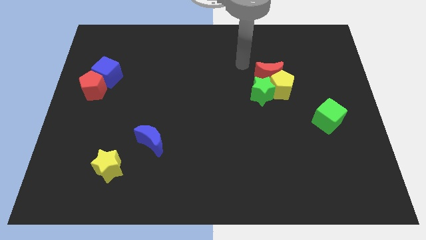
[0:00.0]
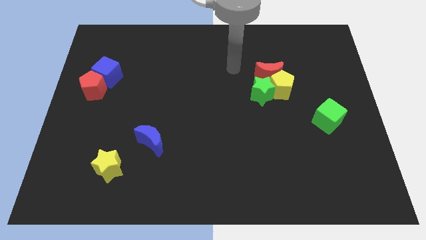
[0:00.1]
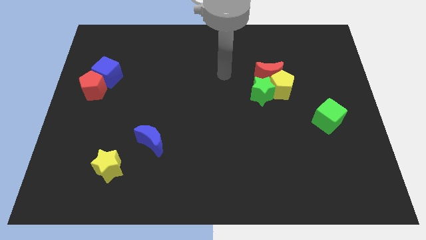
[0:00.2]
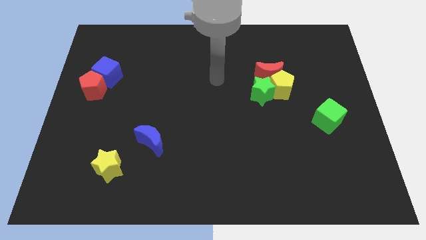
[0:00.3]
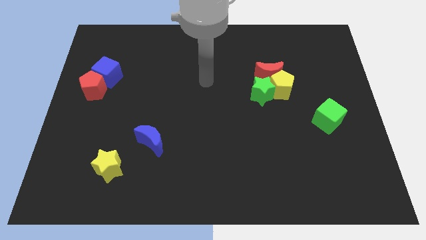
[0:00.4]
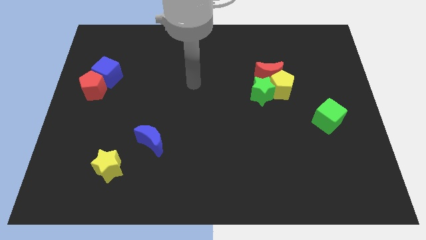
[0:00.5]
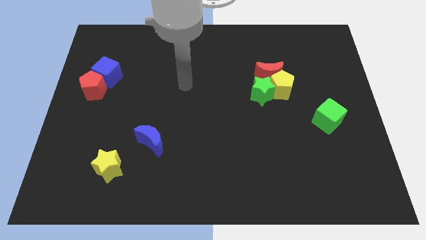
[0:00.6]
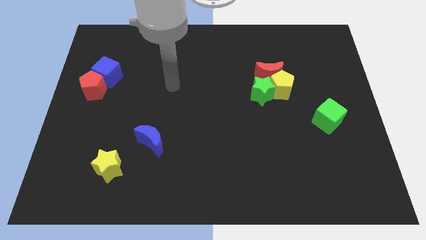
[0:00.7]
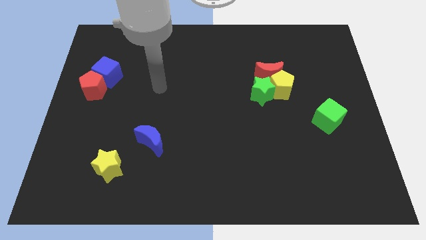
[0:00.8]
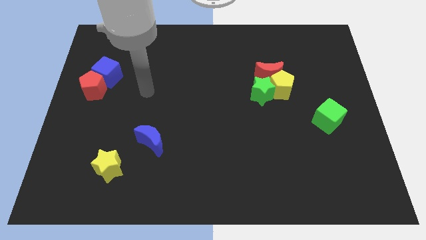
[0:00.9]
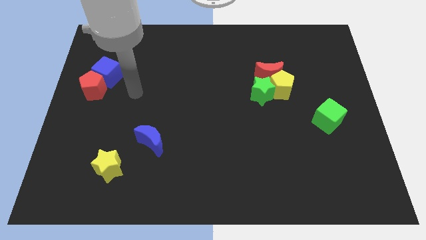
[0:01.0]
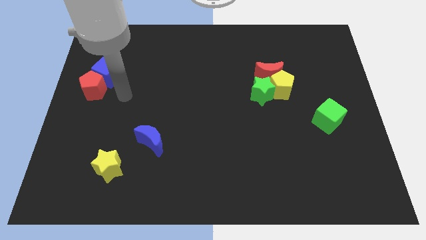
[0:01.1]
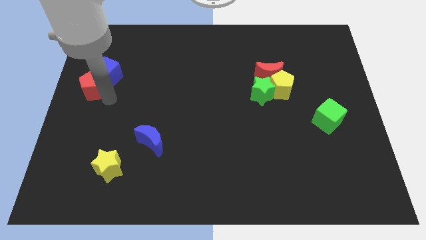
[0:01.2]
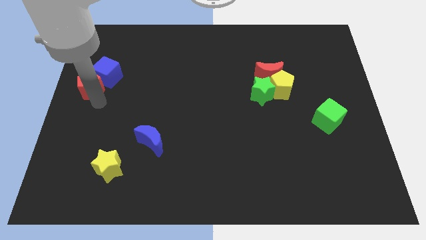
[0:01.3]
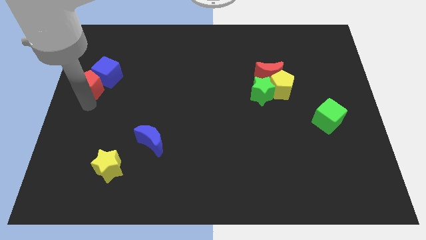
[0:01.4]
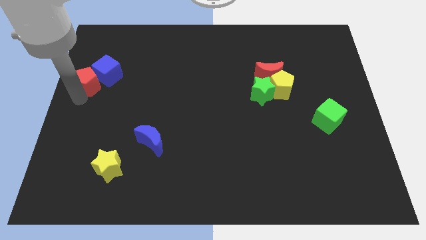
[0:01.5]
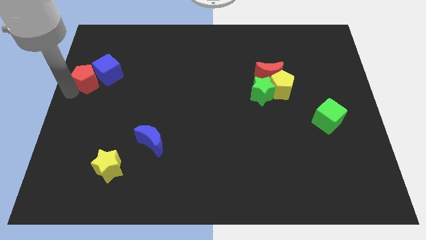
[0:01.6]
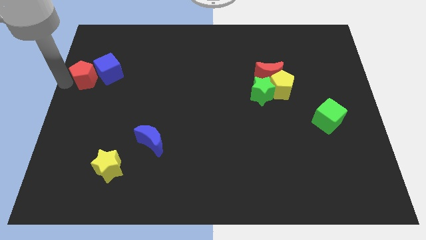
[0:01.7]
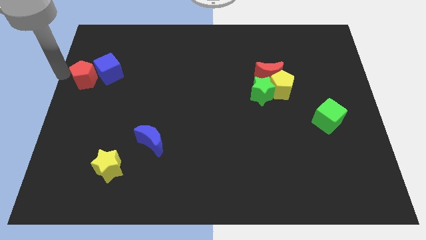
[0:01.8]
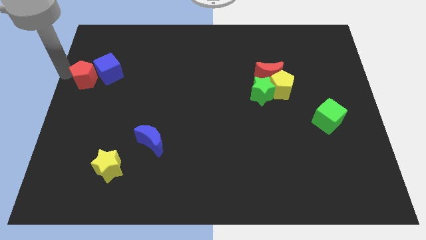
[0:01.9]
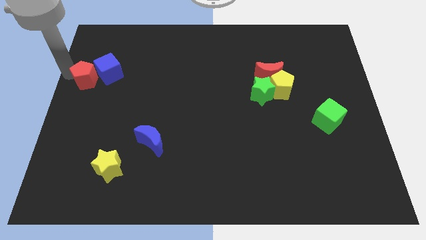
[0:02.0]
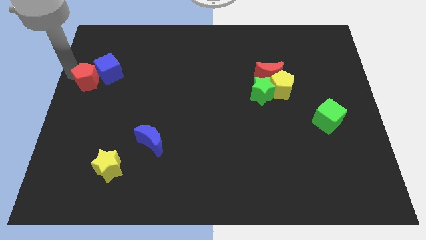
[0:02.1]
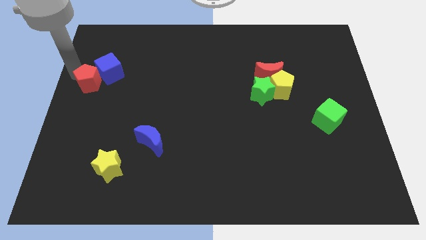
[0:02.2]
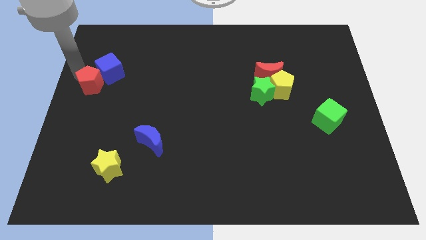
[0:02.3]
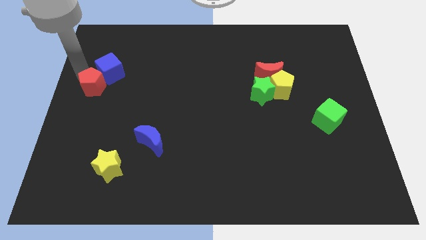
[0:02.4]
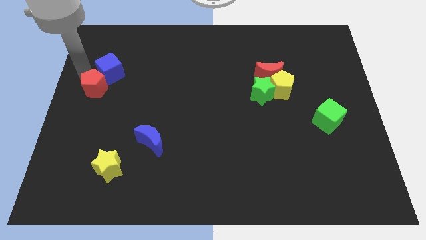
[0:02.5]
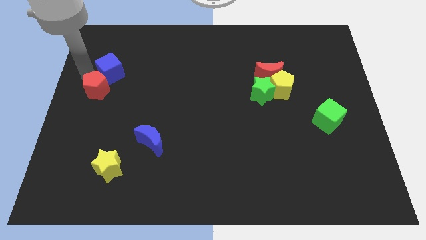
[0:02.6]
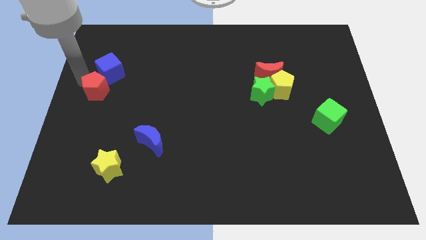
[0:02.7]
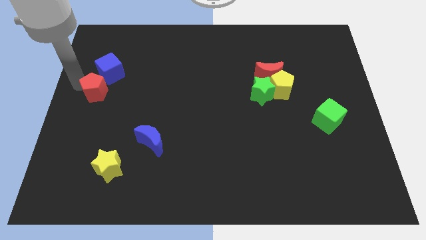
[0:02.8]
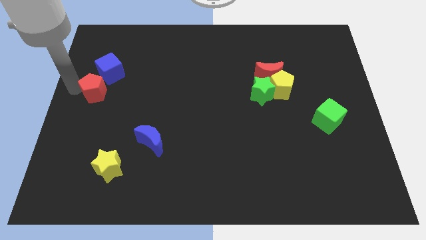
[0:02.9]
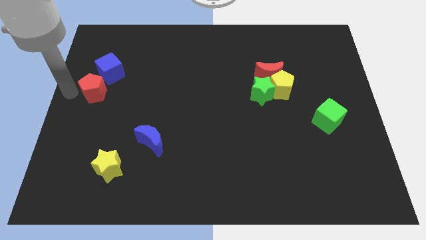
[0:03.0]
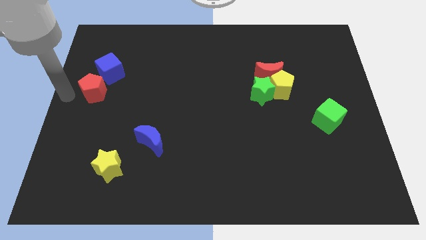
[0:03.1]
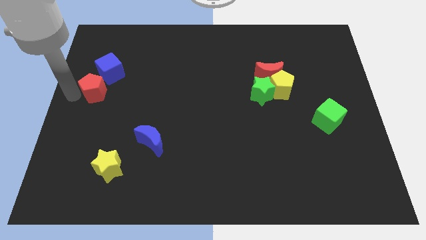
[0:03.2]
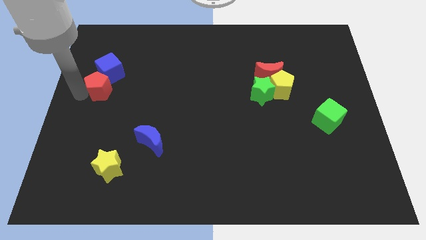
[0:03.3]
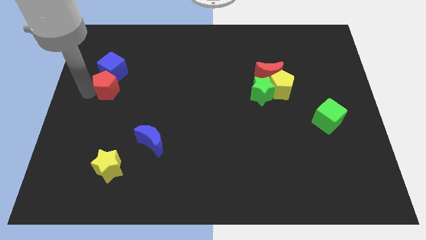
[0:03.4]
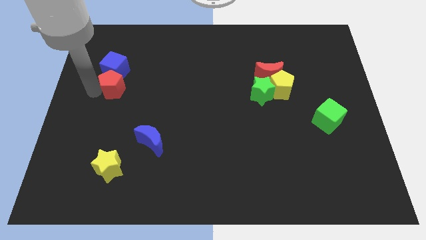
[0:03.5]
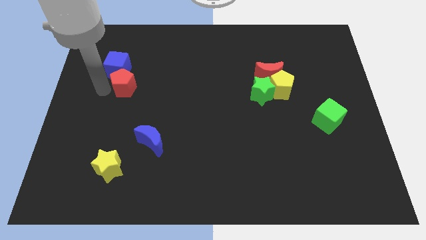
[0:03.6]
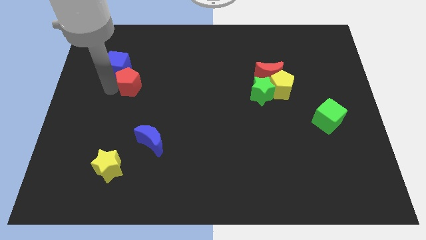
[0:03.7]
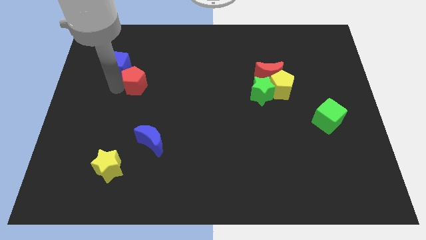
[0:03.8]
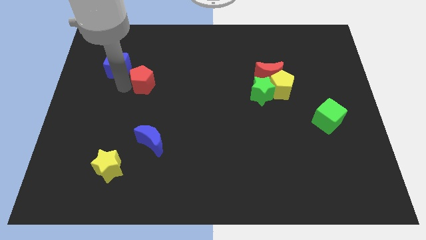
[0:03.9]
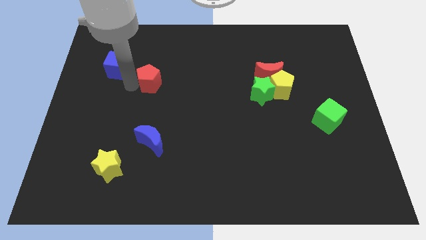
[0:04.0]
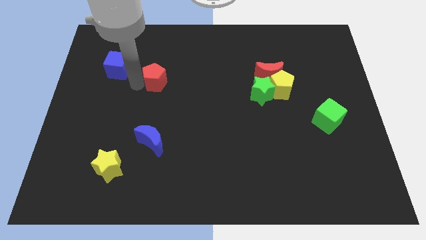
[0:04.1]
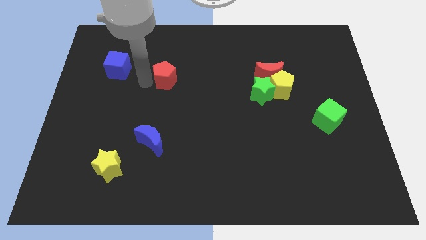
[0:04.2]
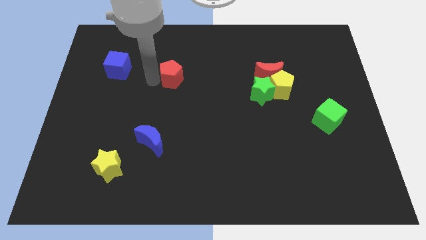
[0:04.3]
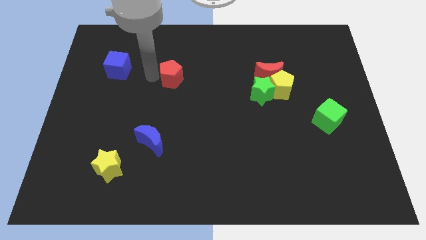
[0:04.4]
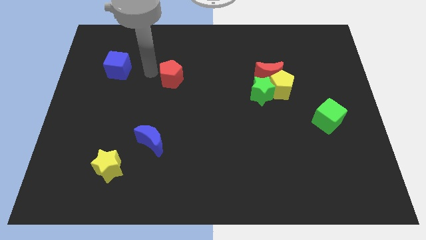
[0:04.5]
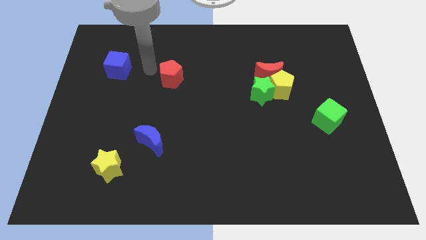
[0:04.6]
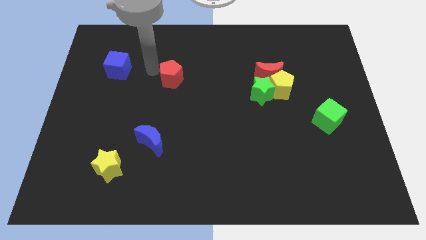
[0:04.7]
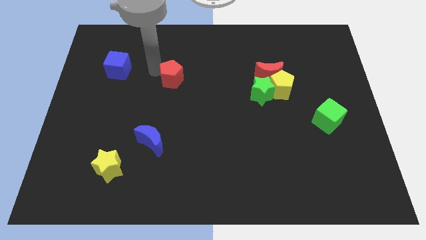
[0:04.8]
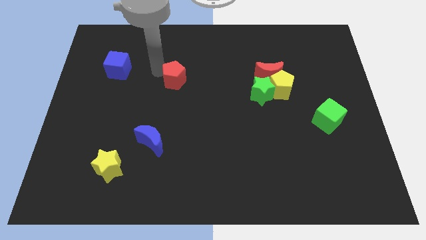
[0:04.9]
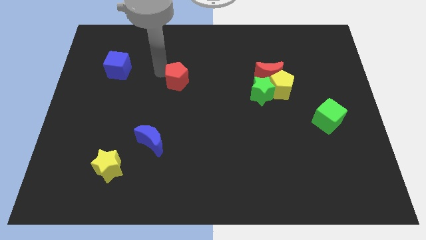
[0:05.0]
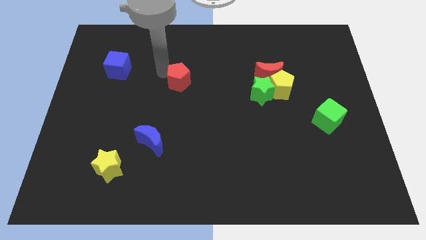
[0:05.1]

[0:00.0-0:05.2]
move the red pentagon right

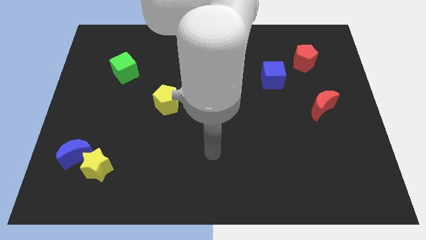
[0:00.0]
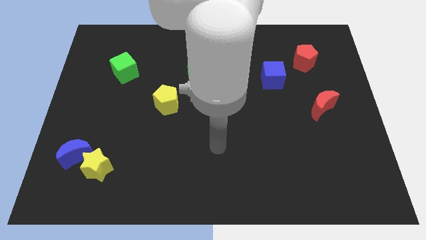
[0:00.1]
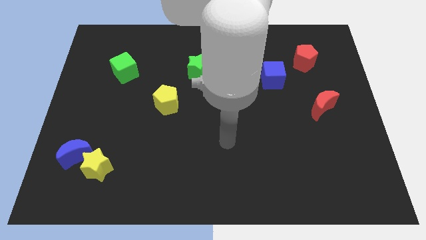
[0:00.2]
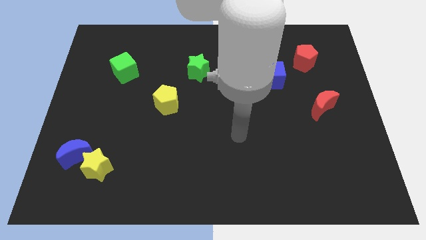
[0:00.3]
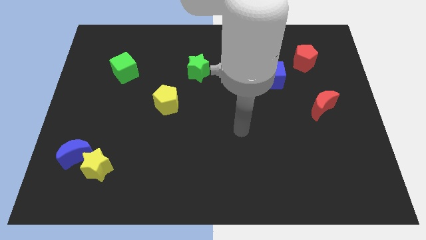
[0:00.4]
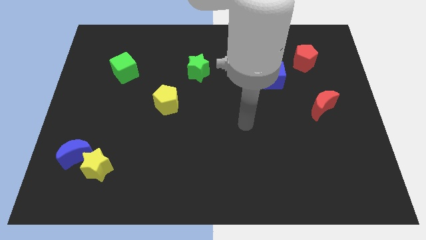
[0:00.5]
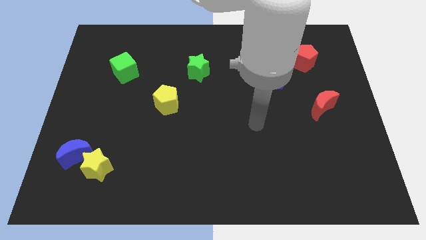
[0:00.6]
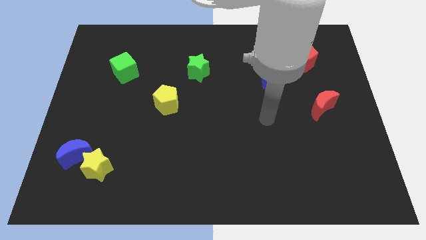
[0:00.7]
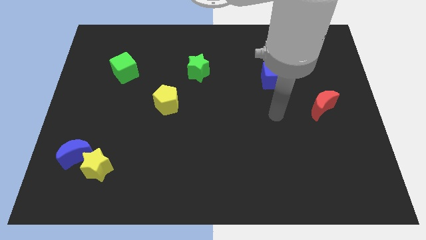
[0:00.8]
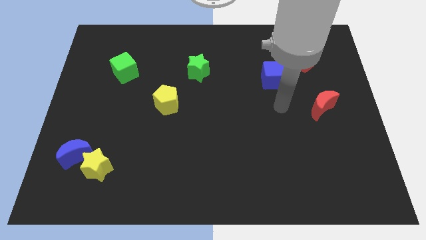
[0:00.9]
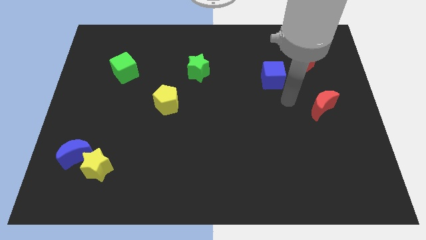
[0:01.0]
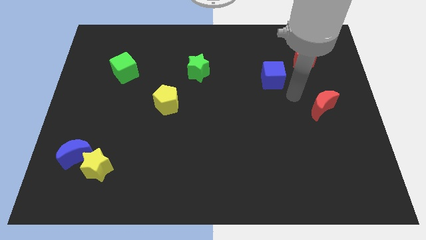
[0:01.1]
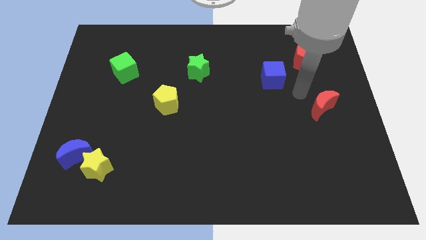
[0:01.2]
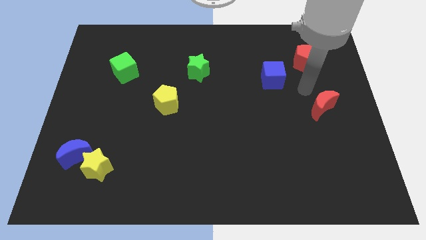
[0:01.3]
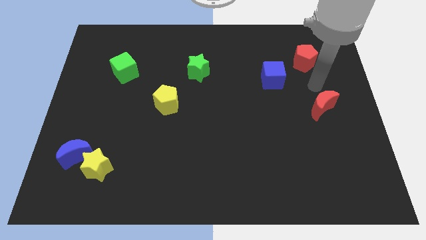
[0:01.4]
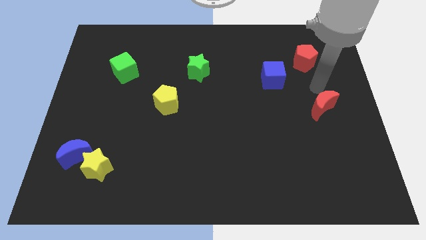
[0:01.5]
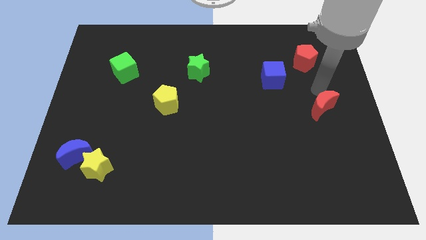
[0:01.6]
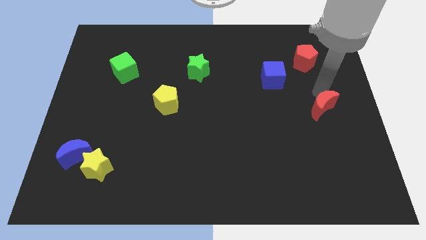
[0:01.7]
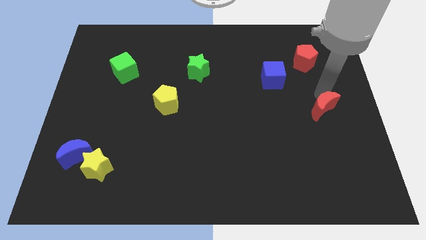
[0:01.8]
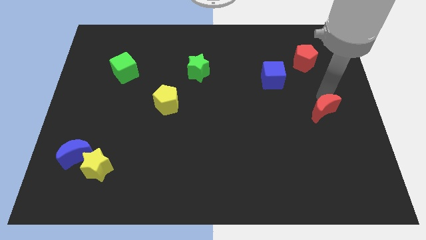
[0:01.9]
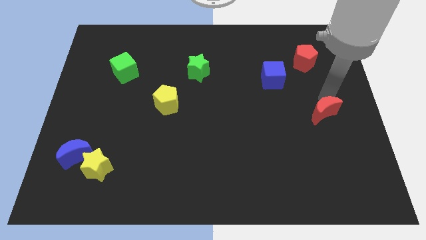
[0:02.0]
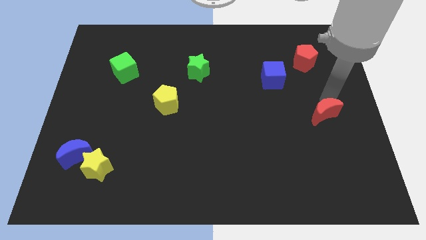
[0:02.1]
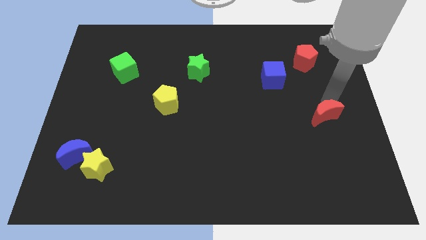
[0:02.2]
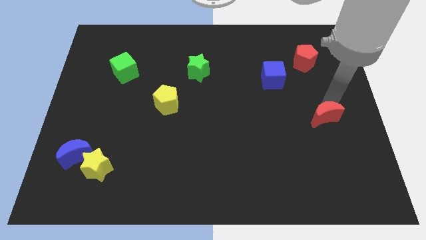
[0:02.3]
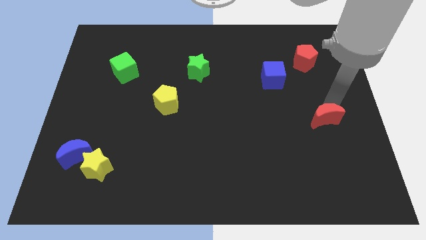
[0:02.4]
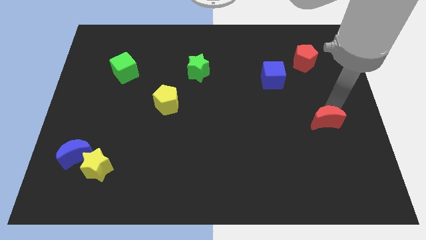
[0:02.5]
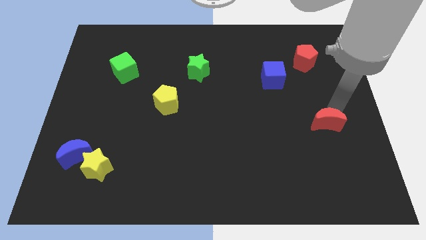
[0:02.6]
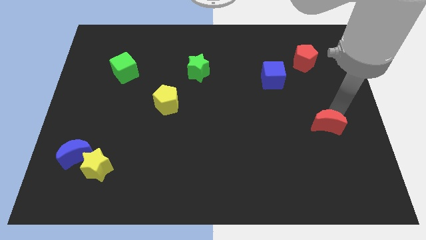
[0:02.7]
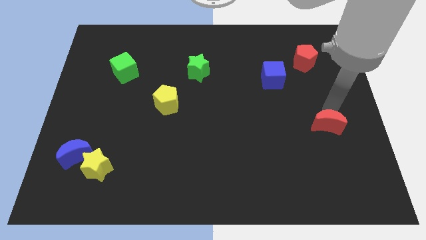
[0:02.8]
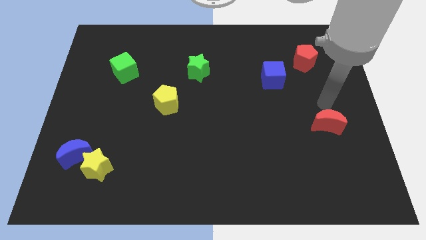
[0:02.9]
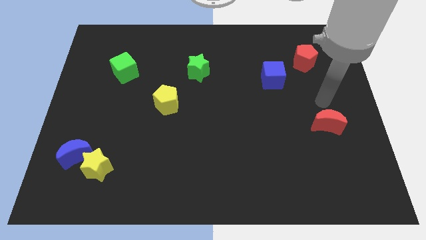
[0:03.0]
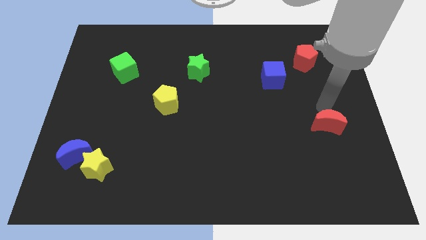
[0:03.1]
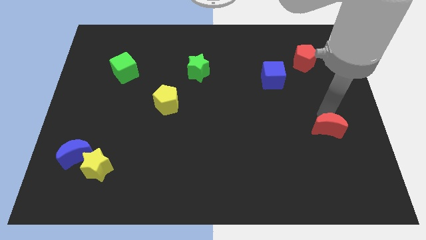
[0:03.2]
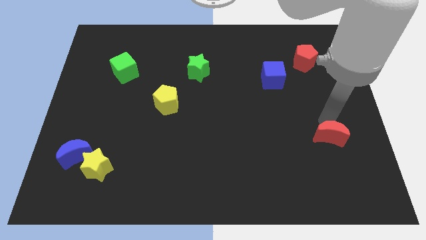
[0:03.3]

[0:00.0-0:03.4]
slide the red moon slightly down
